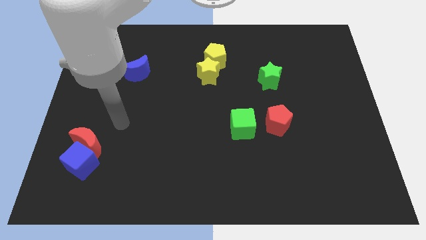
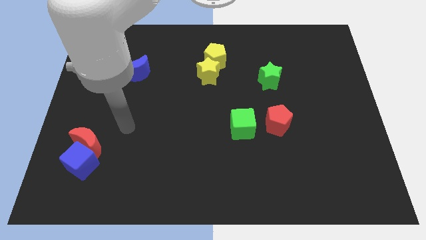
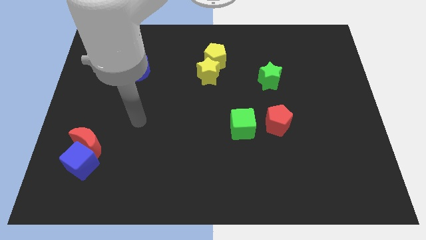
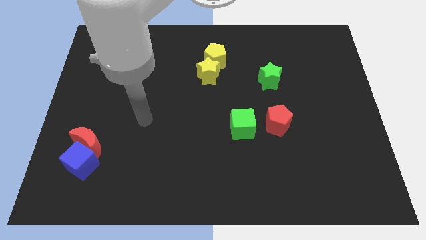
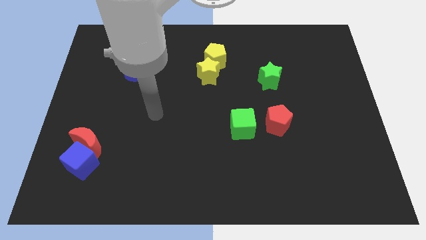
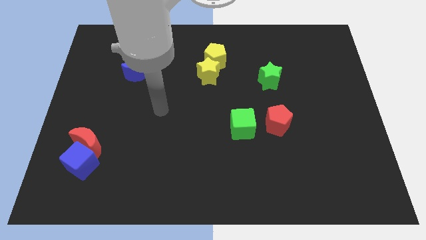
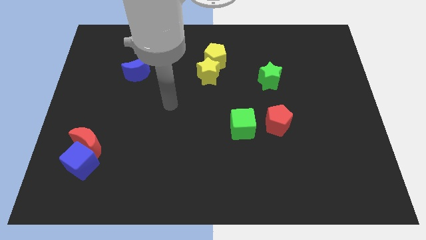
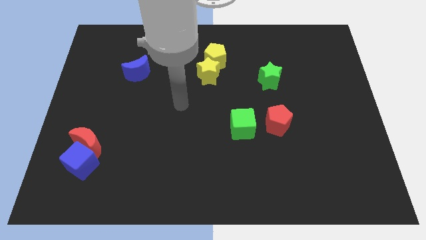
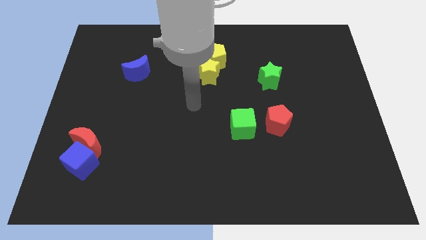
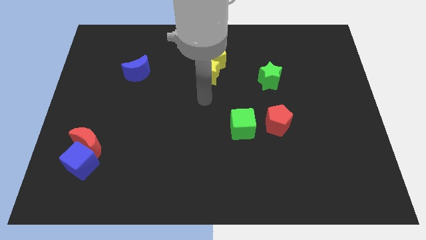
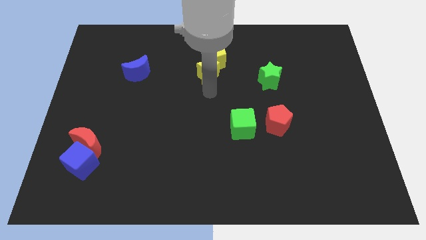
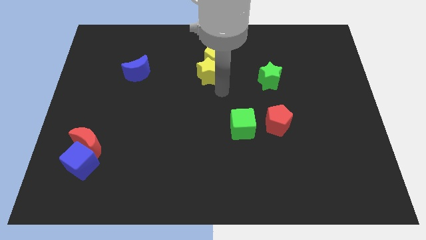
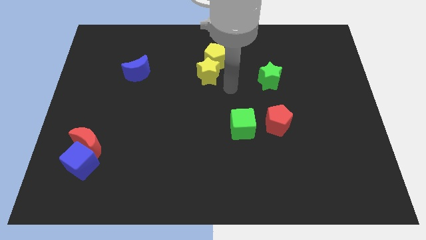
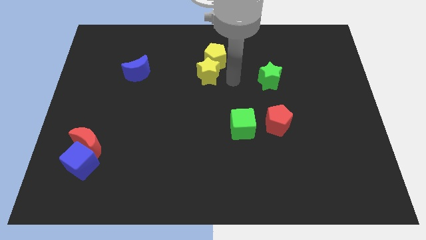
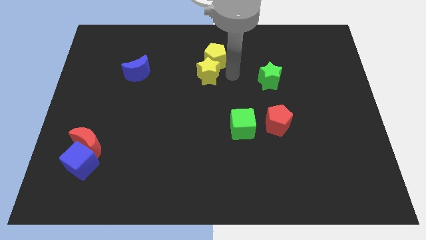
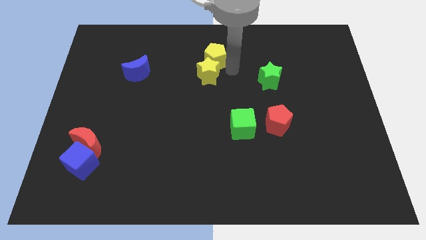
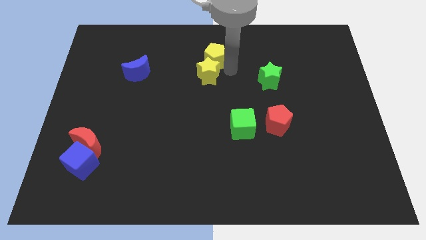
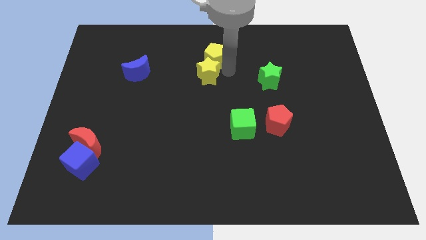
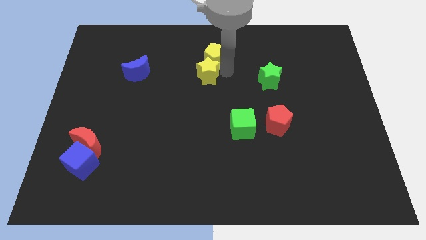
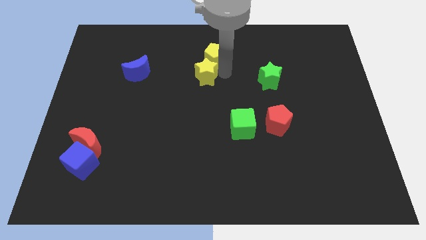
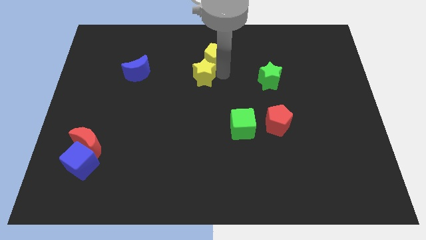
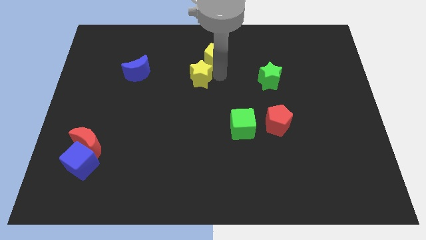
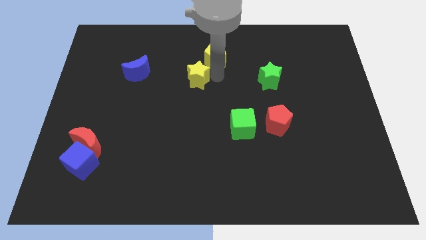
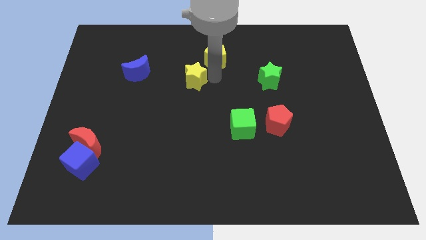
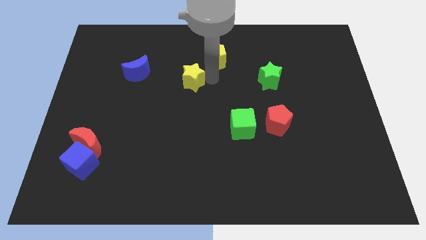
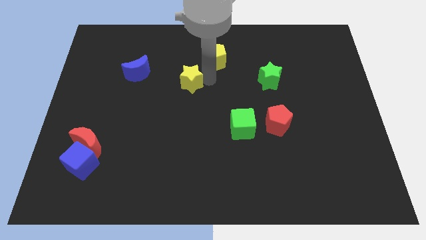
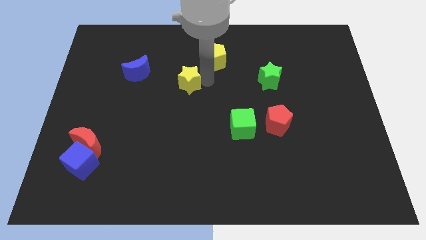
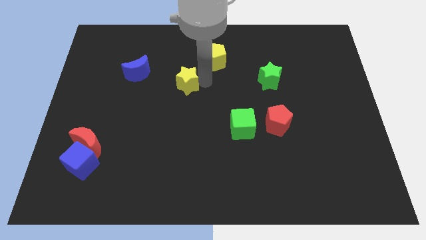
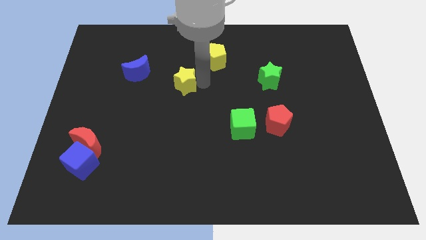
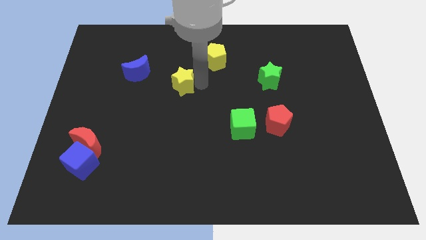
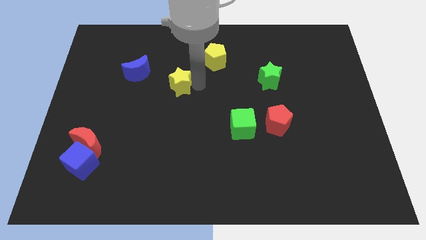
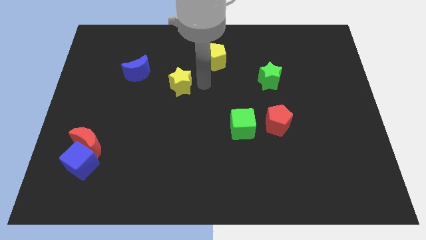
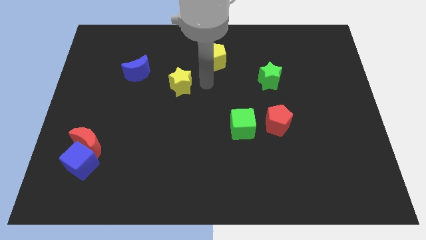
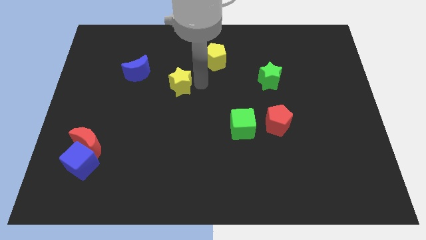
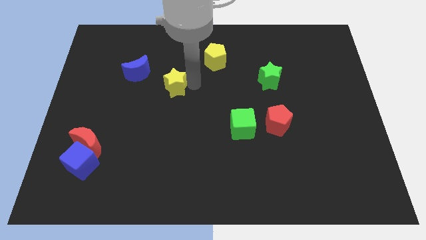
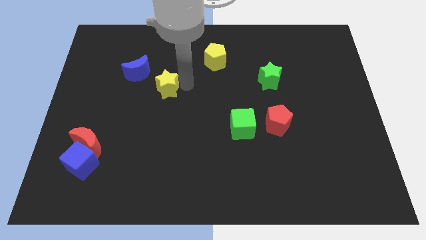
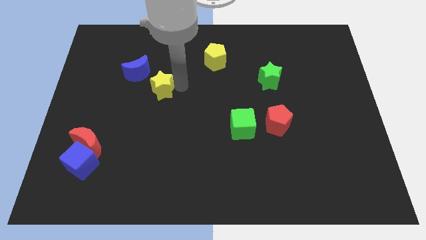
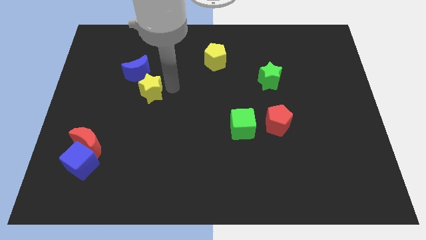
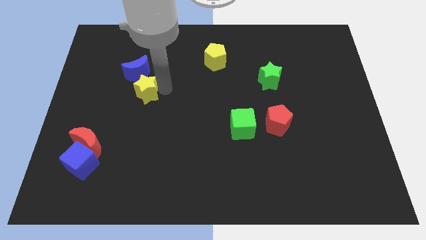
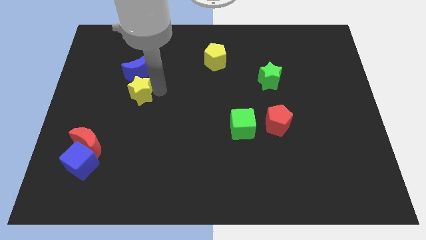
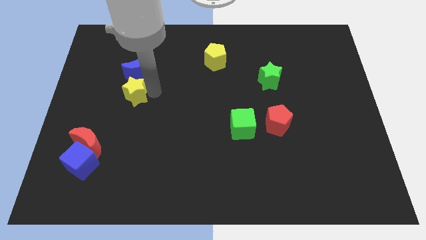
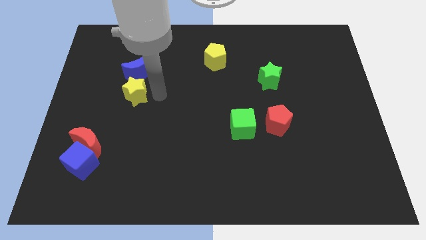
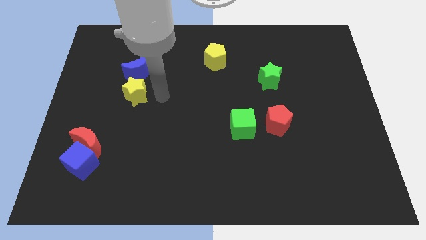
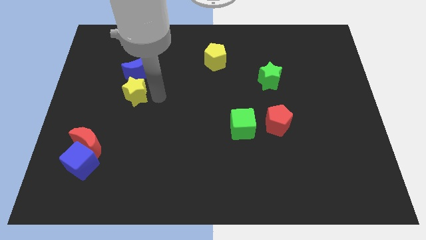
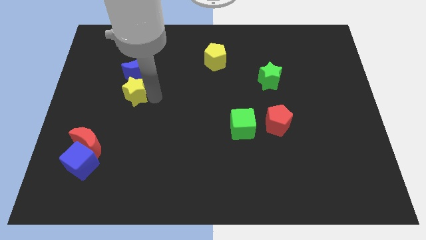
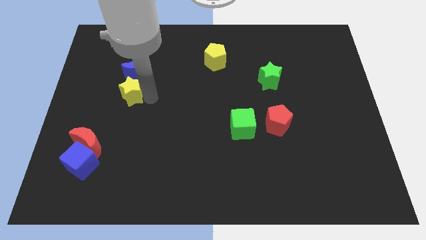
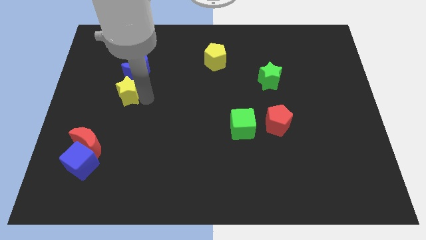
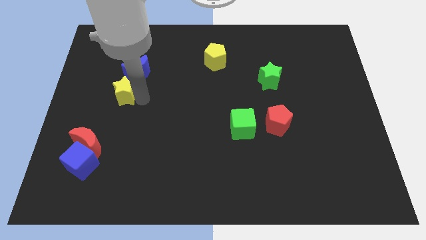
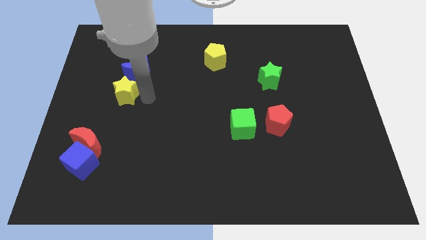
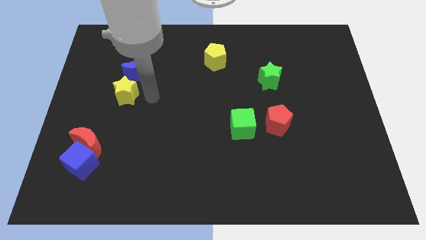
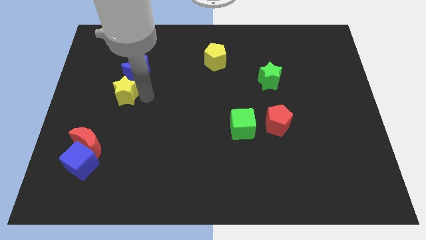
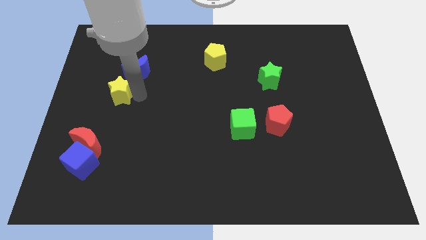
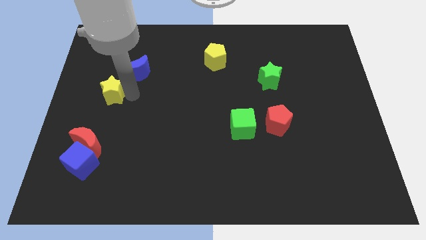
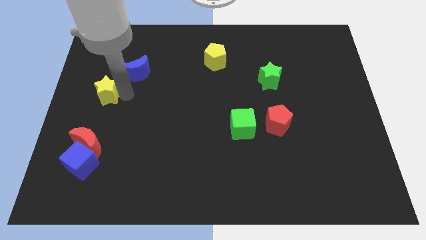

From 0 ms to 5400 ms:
move the yellow star to the left side of the board

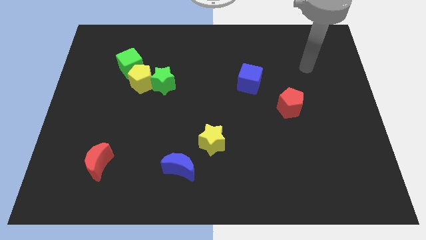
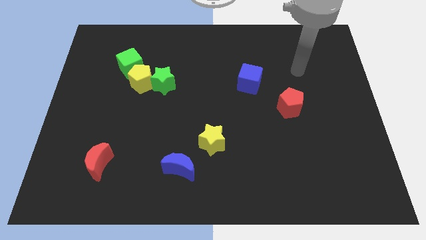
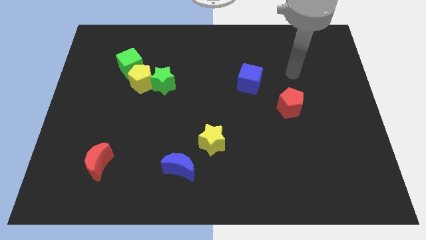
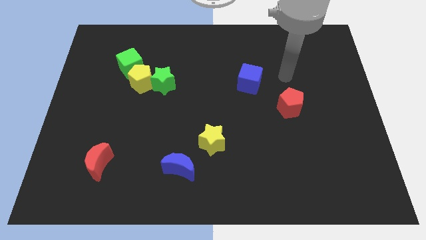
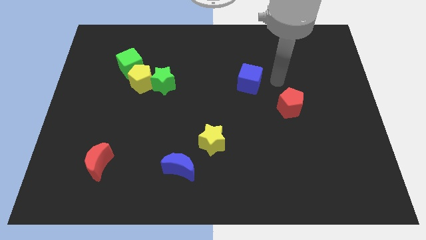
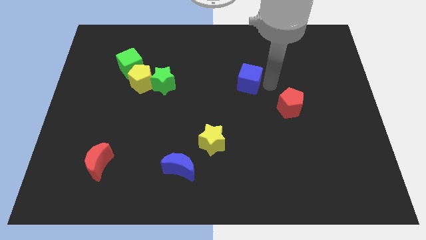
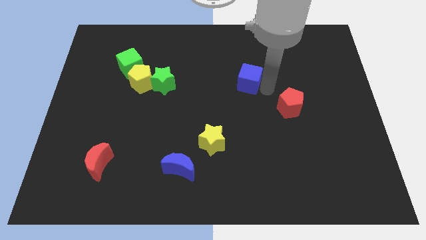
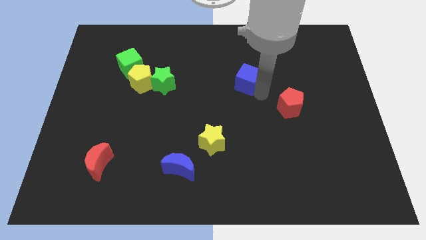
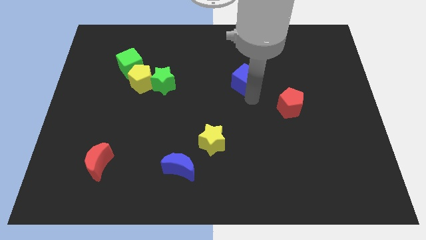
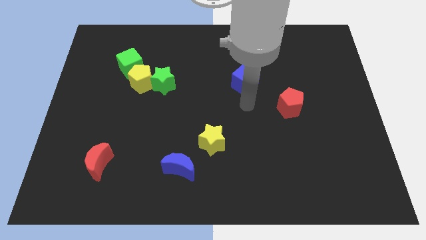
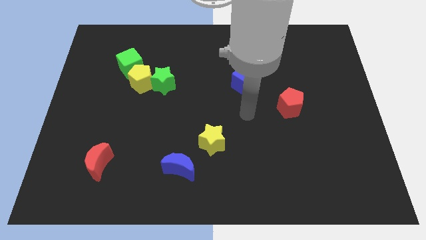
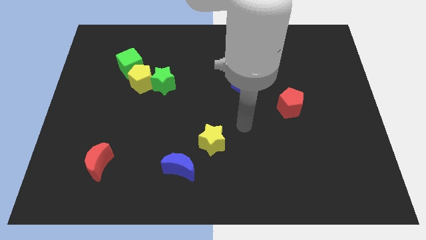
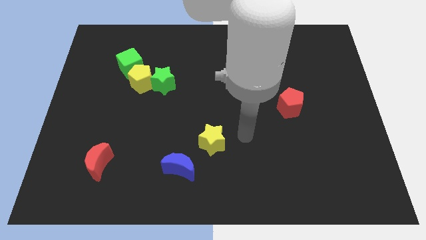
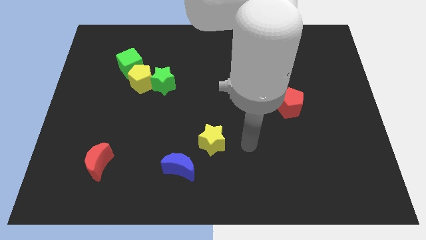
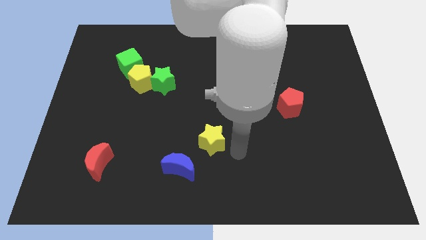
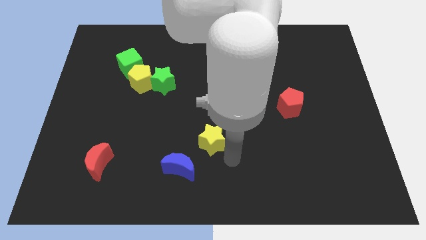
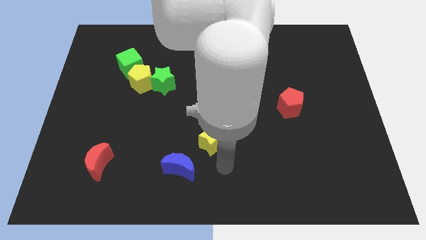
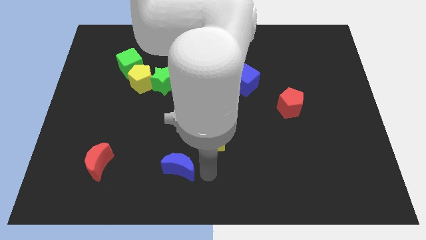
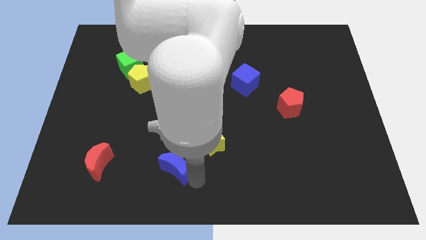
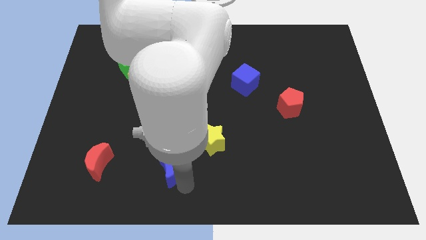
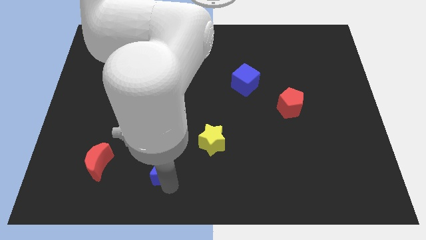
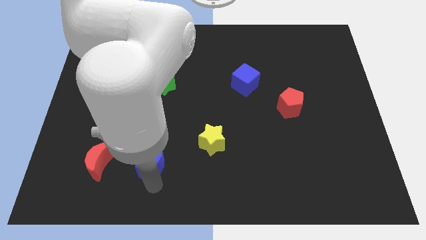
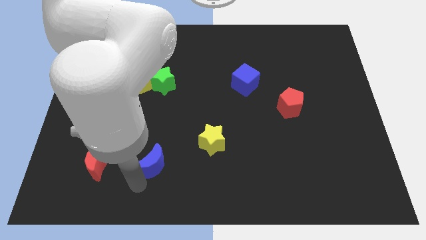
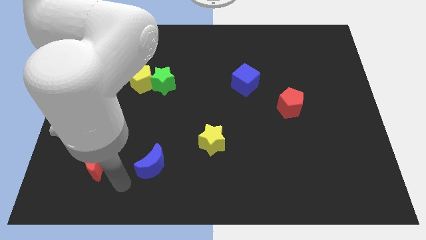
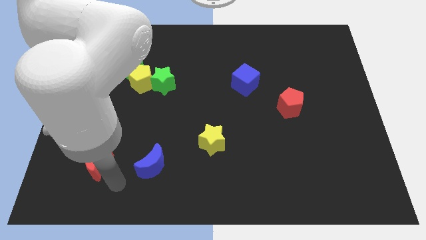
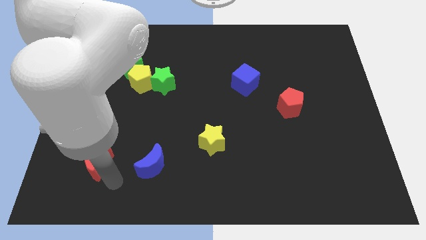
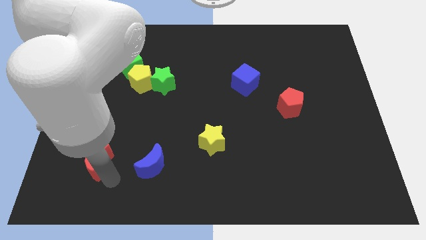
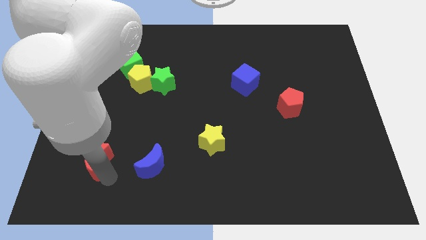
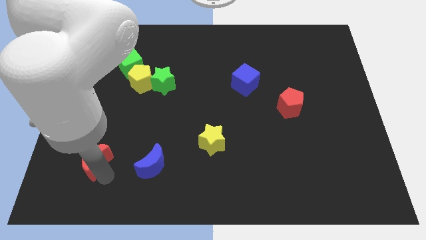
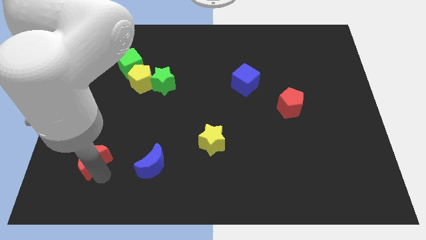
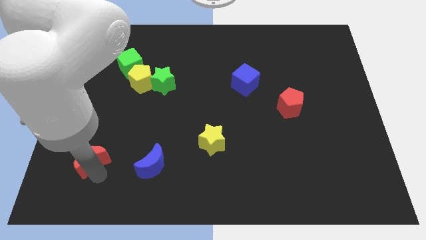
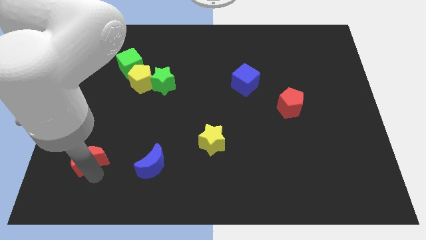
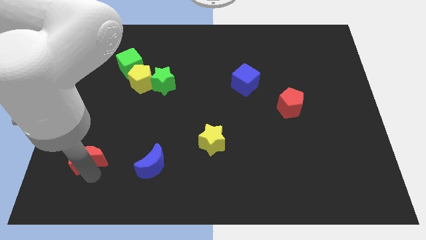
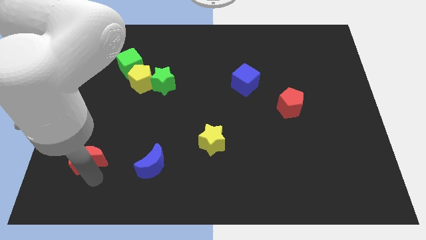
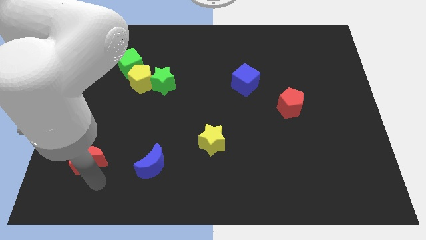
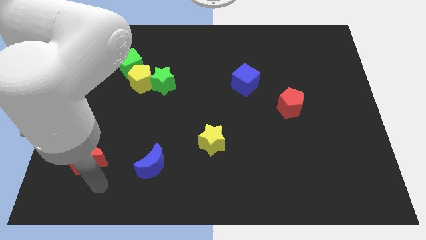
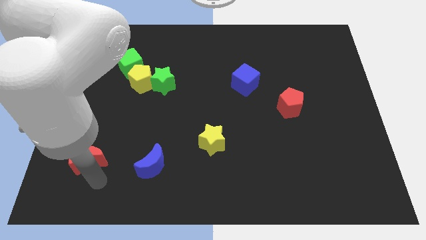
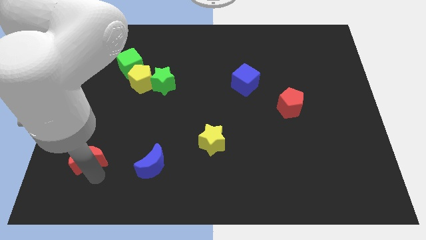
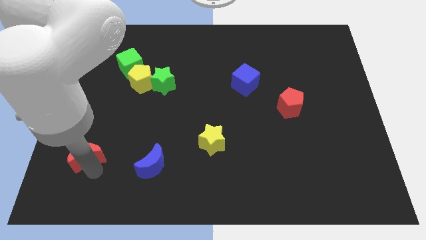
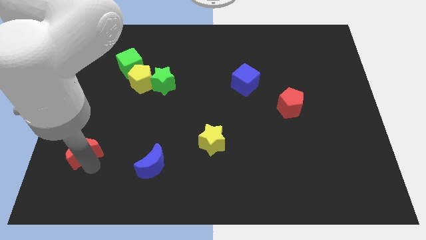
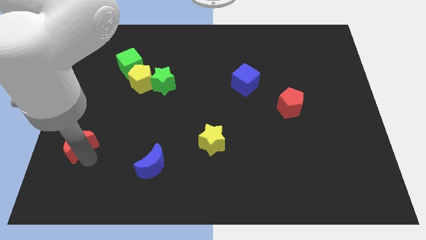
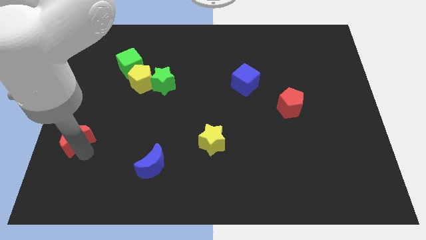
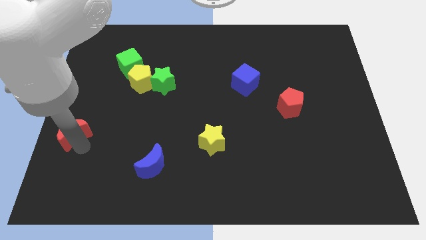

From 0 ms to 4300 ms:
push the red moon to the left side
